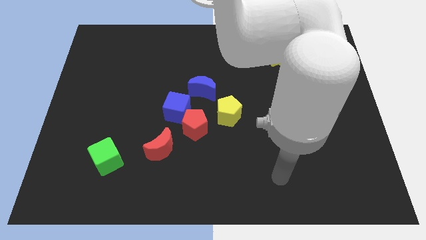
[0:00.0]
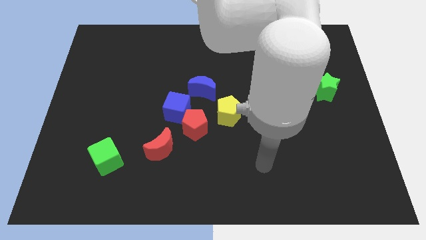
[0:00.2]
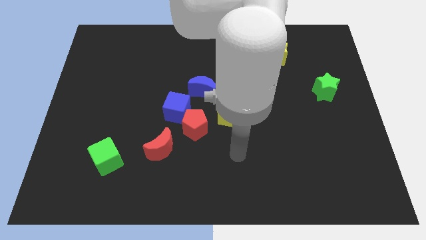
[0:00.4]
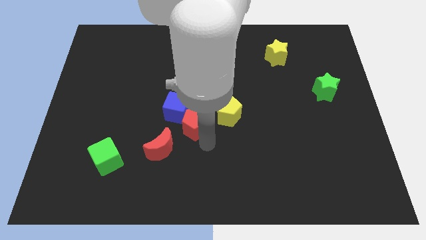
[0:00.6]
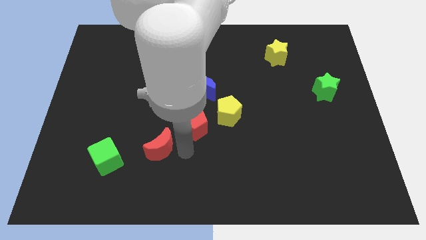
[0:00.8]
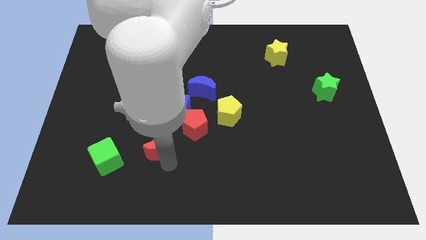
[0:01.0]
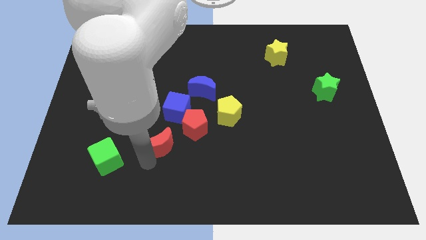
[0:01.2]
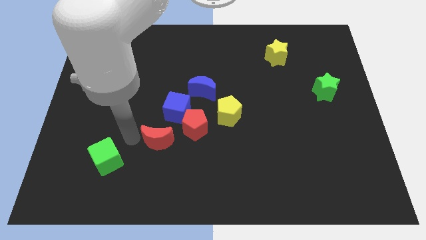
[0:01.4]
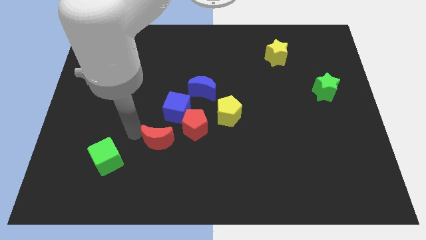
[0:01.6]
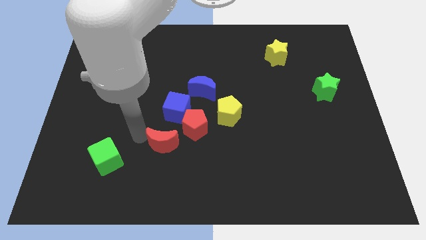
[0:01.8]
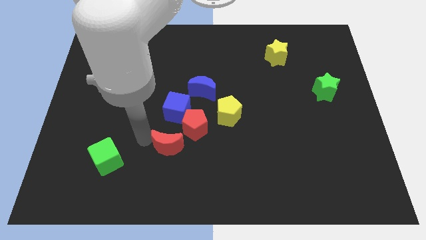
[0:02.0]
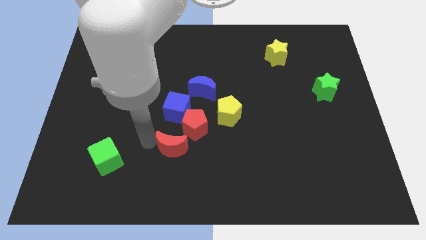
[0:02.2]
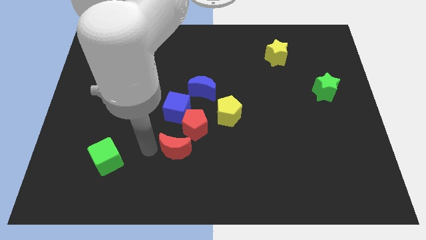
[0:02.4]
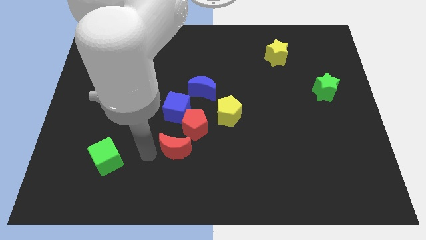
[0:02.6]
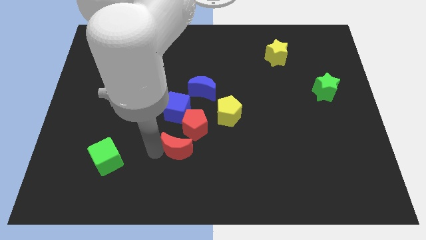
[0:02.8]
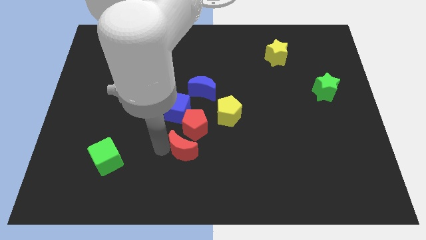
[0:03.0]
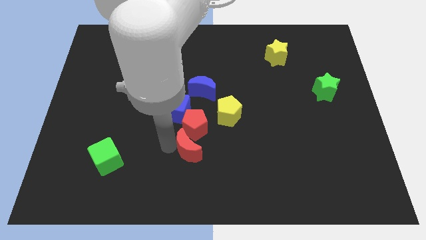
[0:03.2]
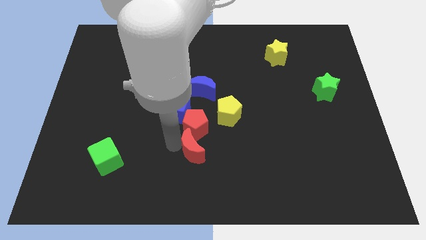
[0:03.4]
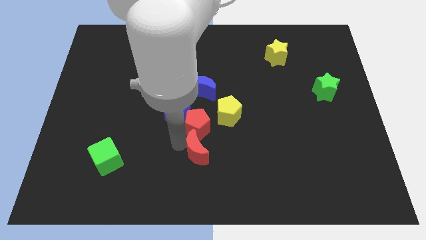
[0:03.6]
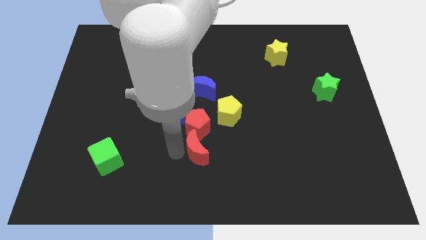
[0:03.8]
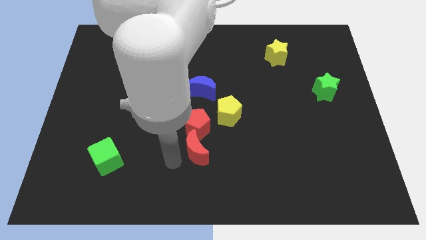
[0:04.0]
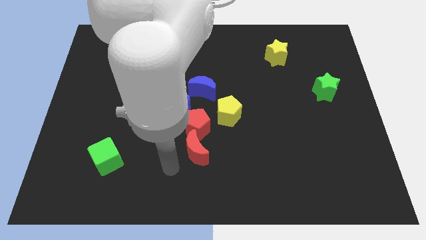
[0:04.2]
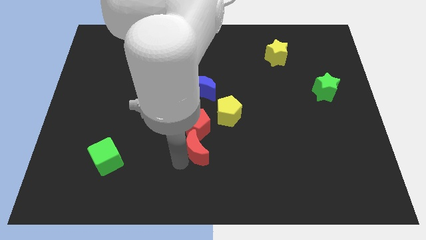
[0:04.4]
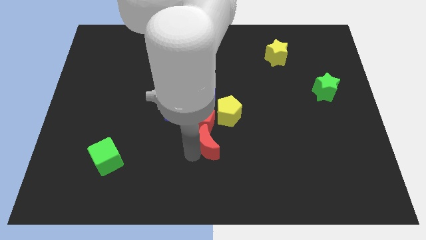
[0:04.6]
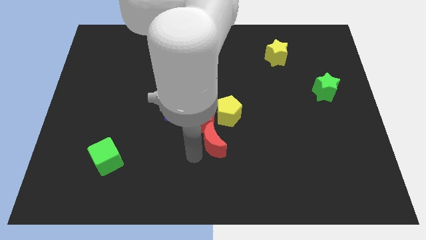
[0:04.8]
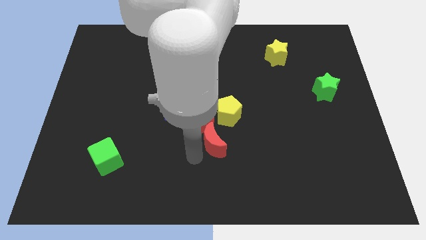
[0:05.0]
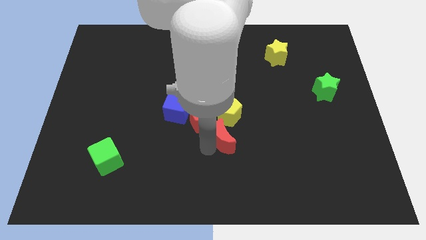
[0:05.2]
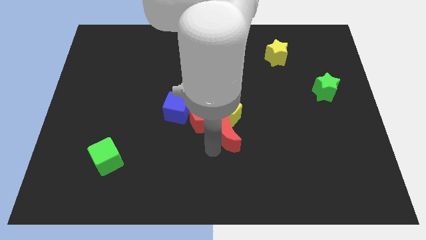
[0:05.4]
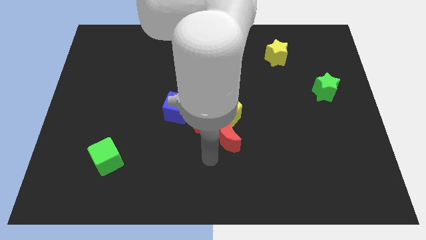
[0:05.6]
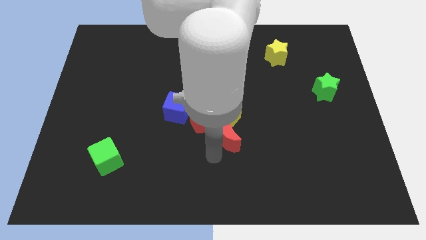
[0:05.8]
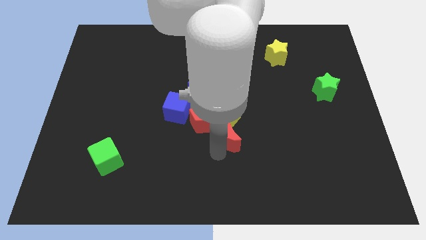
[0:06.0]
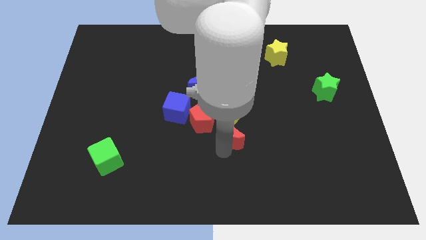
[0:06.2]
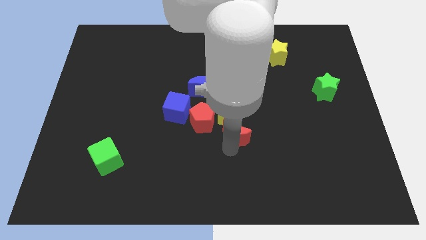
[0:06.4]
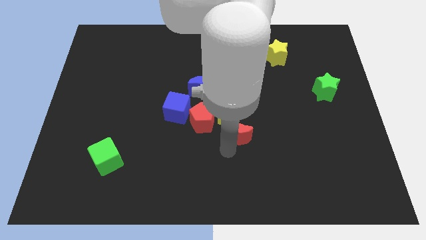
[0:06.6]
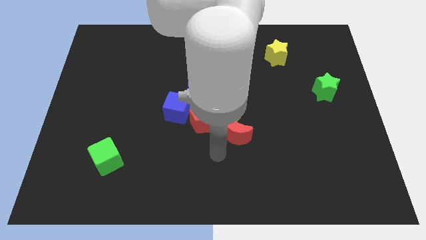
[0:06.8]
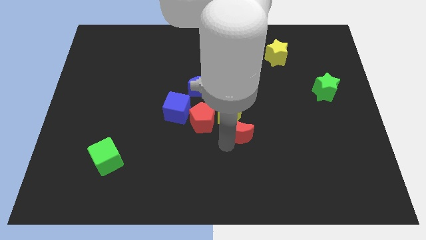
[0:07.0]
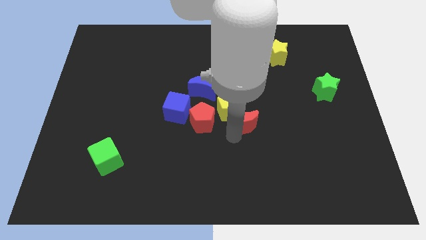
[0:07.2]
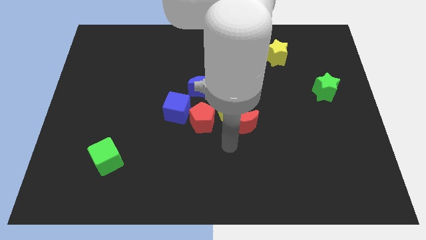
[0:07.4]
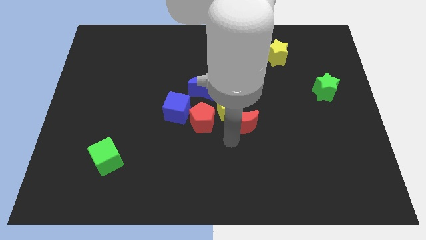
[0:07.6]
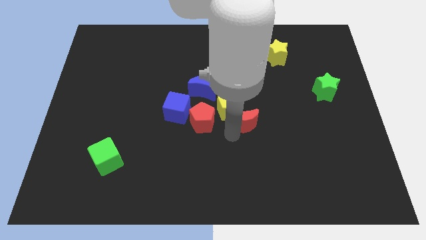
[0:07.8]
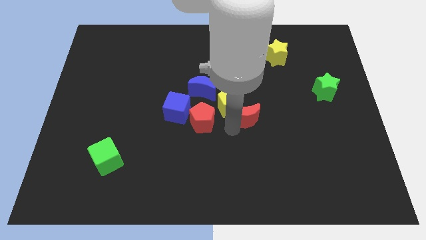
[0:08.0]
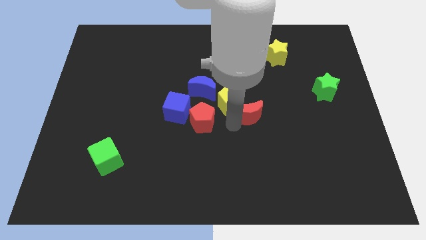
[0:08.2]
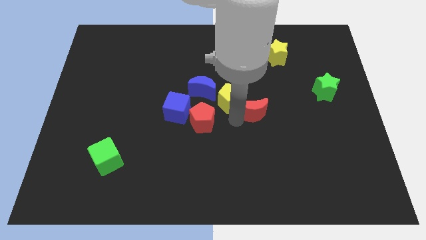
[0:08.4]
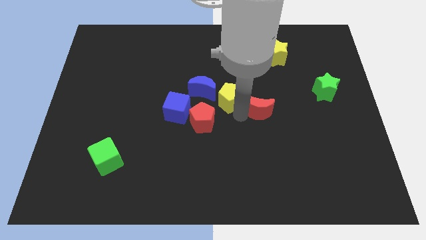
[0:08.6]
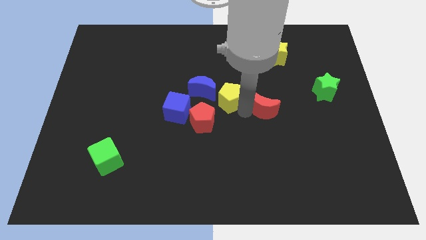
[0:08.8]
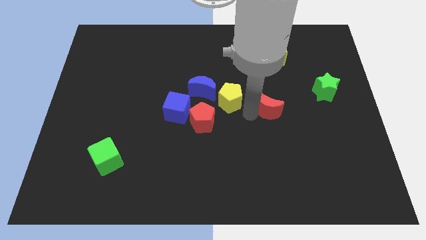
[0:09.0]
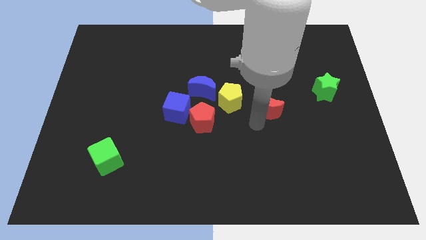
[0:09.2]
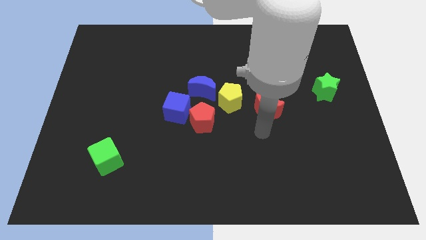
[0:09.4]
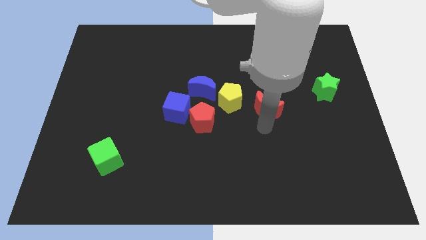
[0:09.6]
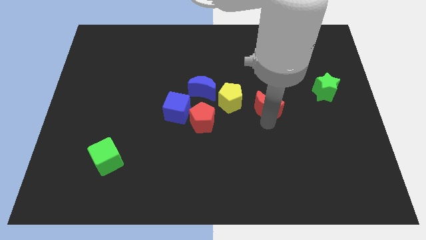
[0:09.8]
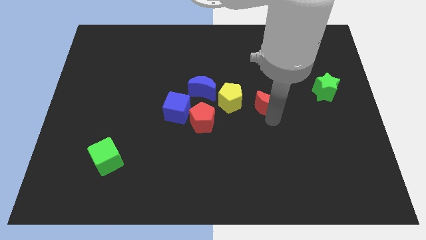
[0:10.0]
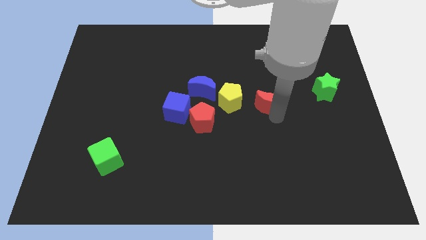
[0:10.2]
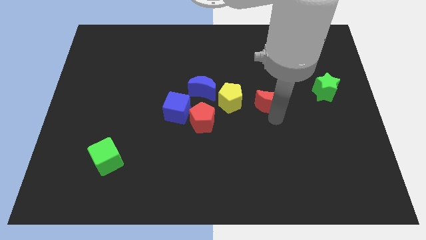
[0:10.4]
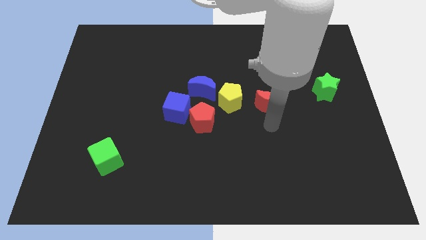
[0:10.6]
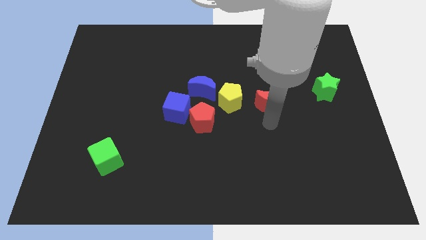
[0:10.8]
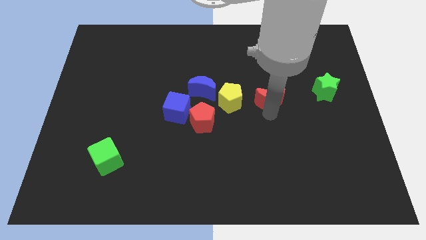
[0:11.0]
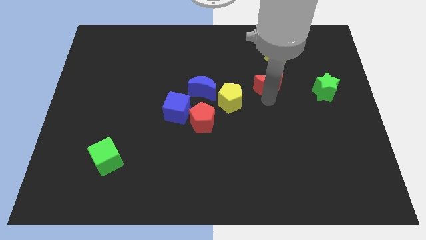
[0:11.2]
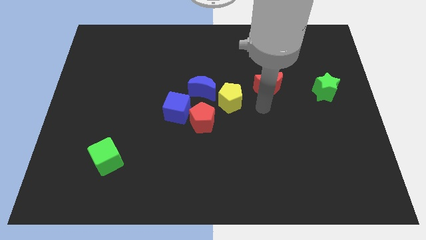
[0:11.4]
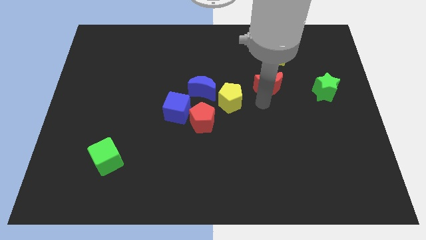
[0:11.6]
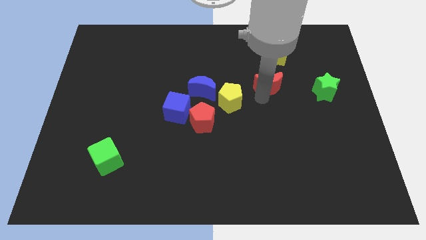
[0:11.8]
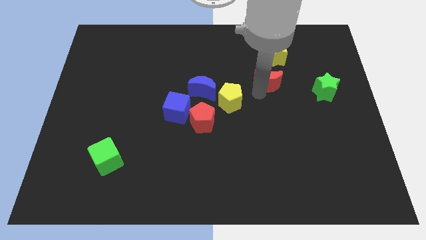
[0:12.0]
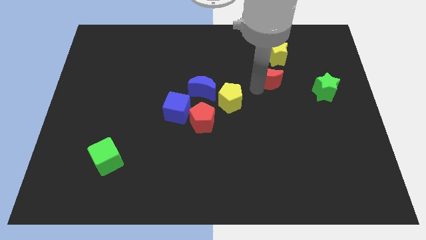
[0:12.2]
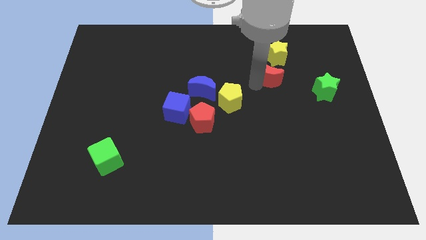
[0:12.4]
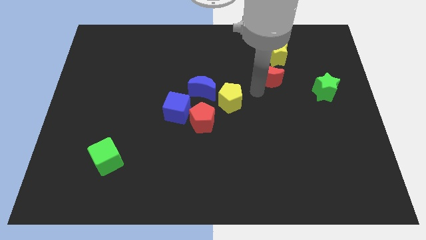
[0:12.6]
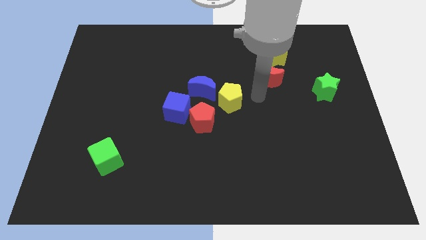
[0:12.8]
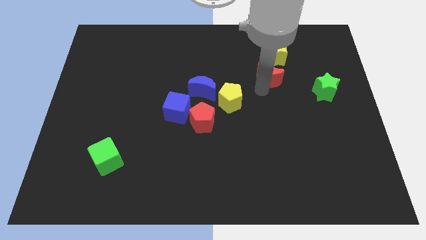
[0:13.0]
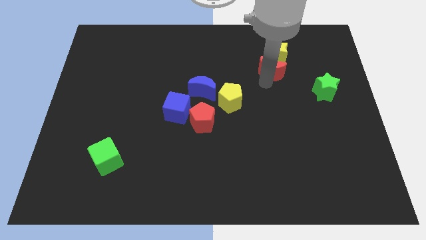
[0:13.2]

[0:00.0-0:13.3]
put the red moon close to the yellow star
